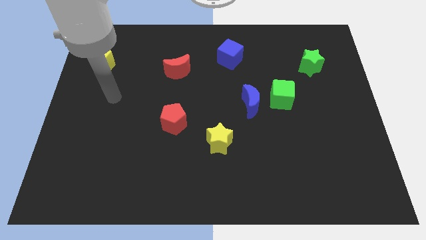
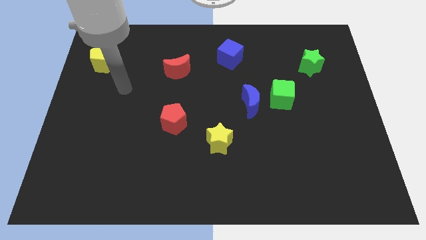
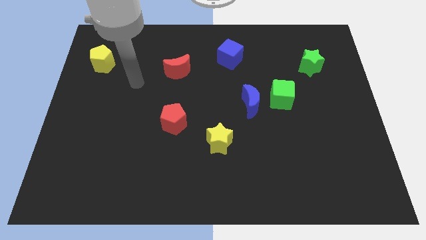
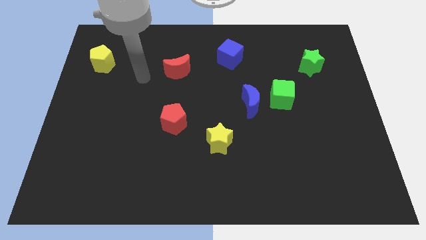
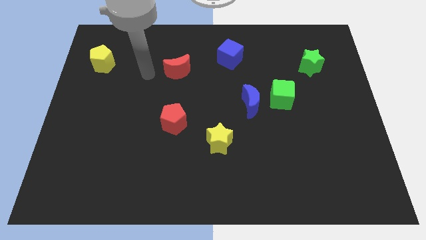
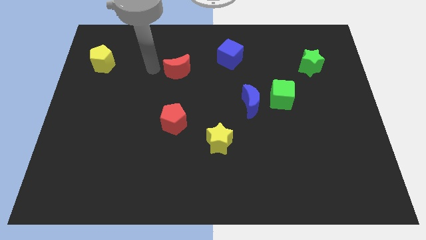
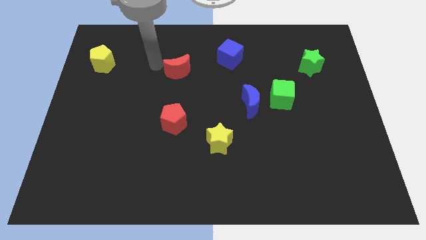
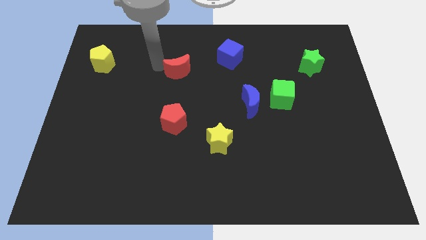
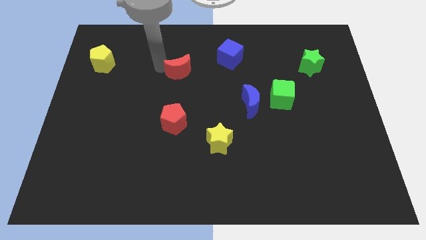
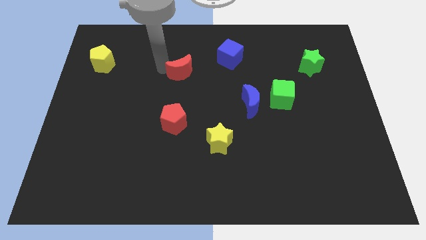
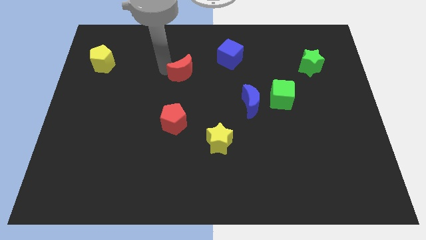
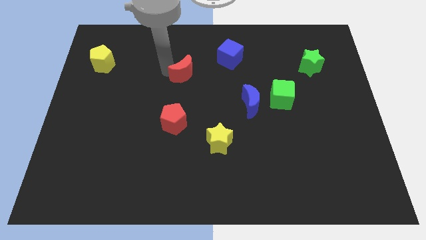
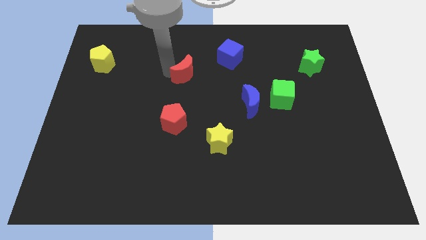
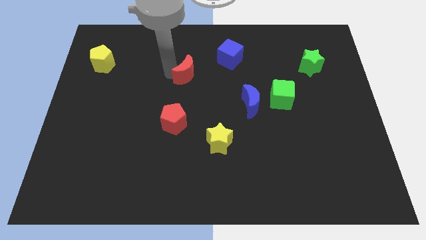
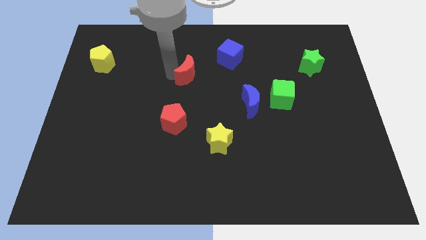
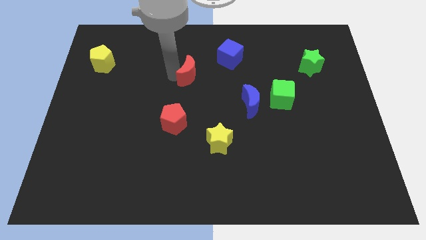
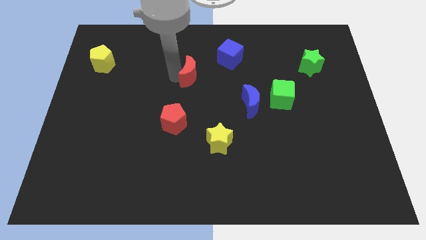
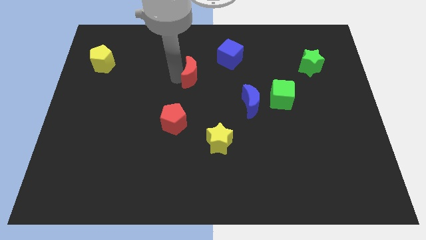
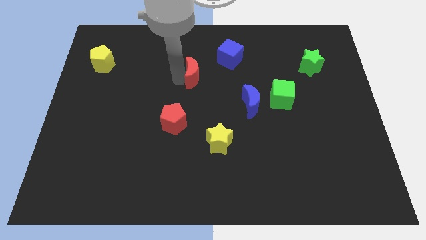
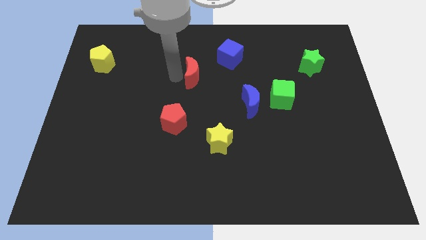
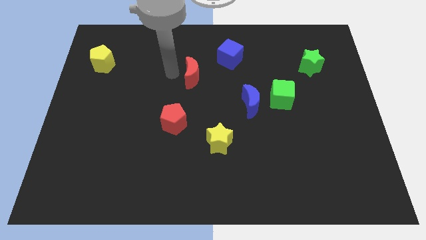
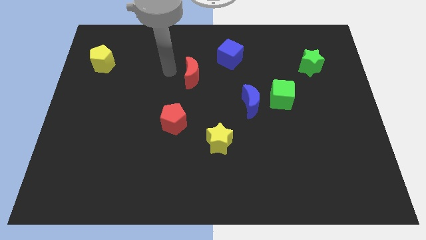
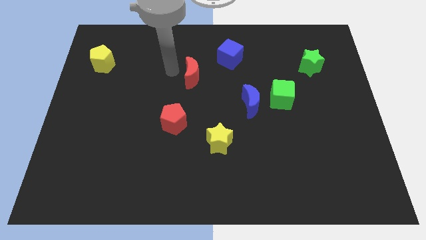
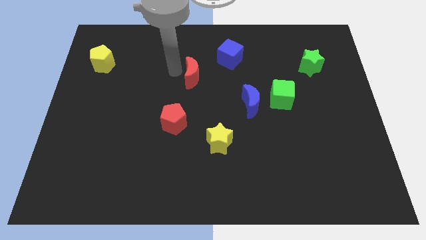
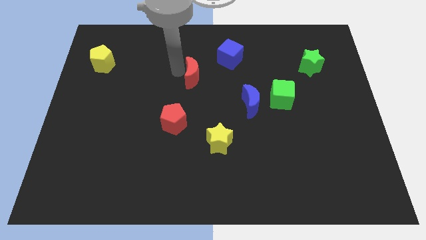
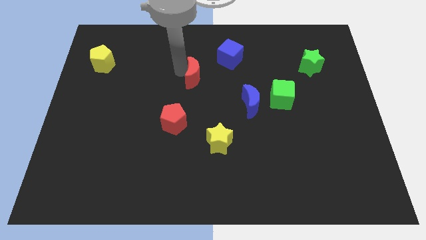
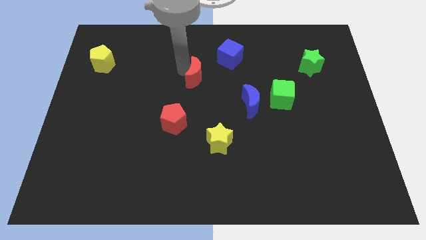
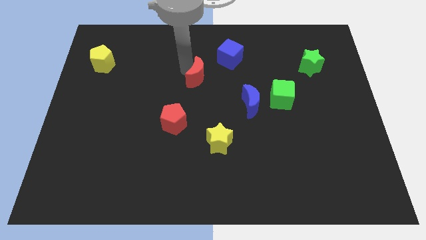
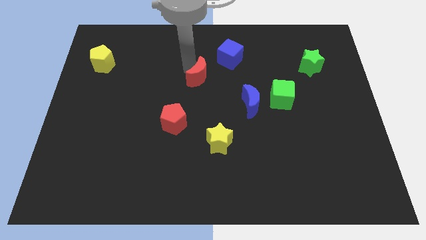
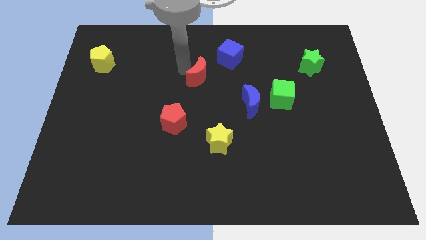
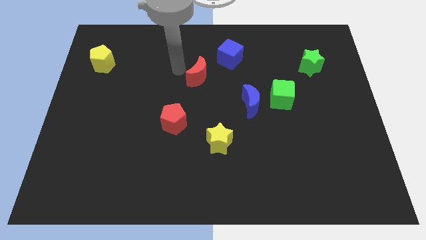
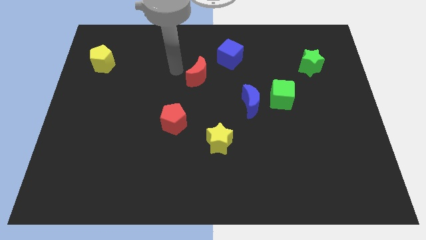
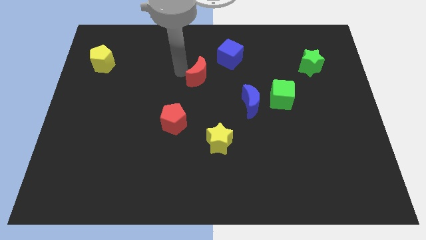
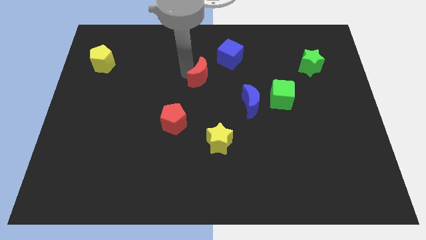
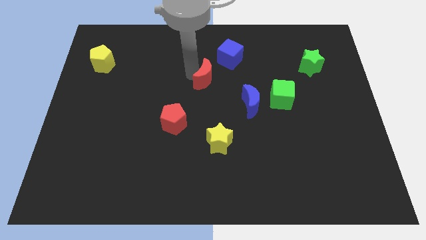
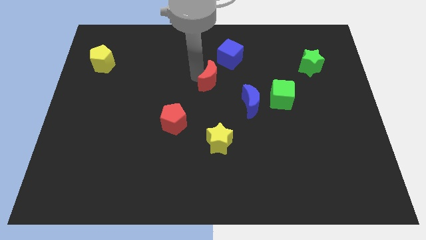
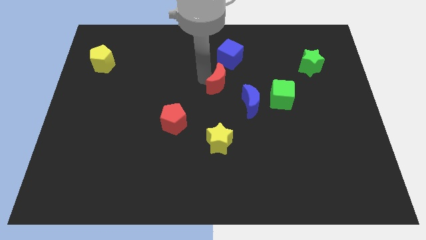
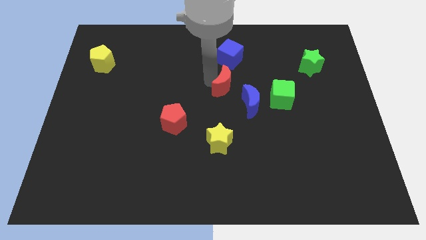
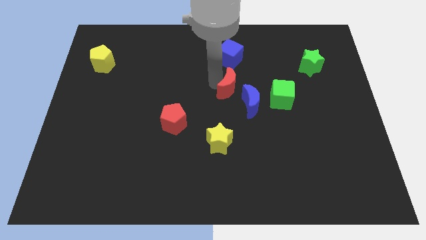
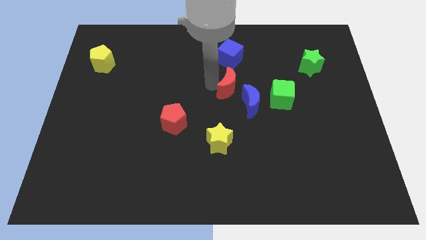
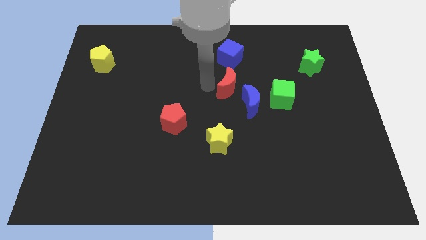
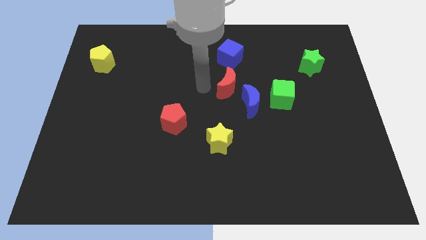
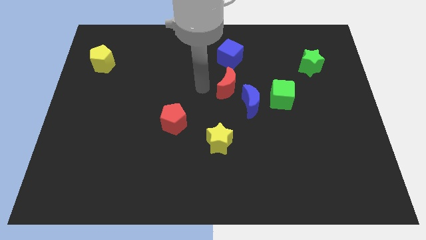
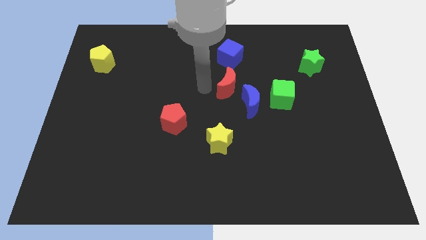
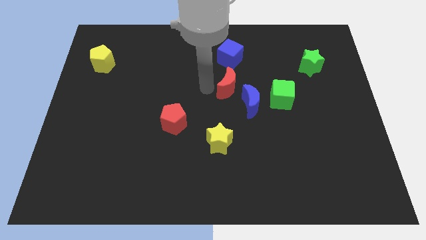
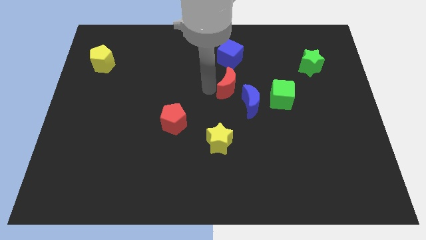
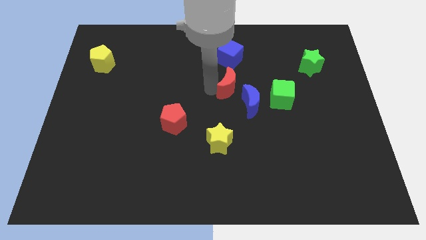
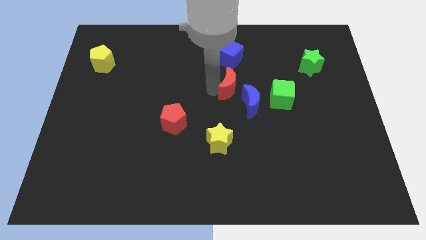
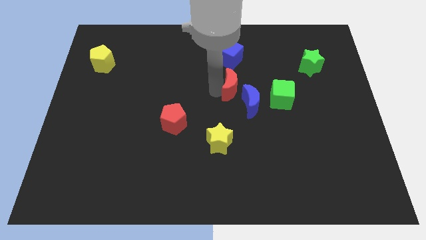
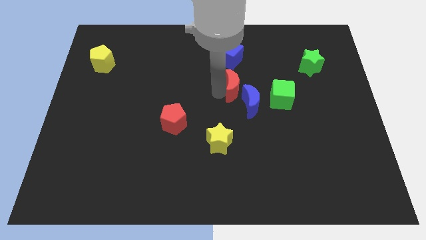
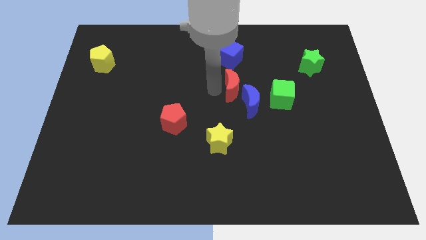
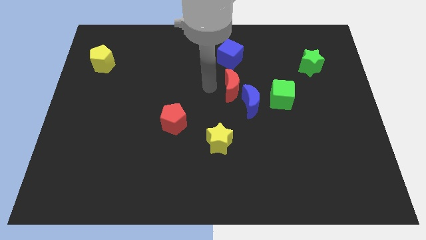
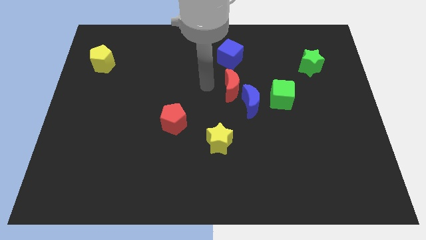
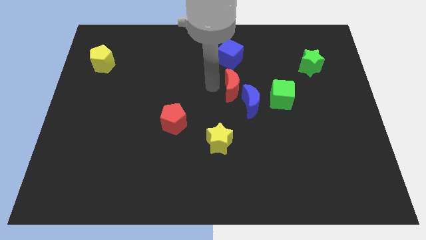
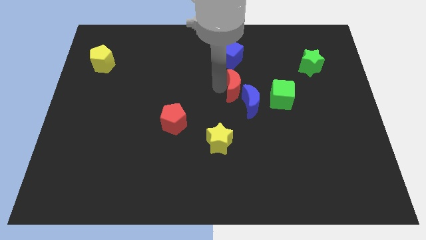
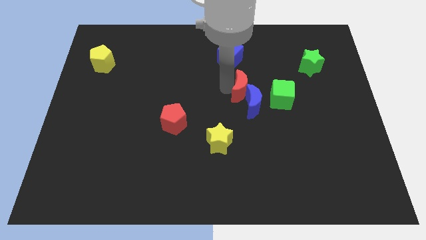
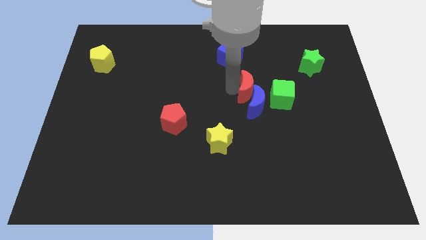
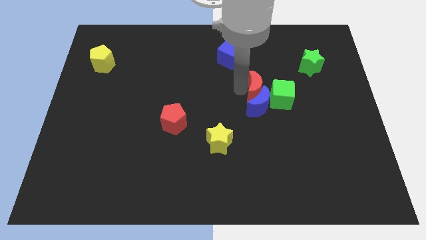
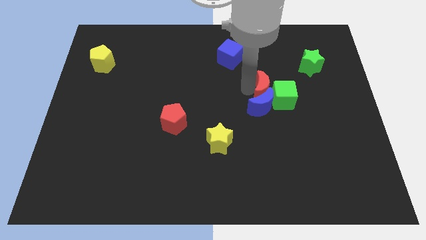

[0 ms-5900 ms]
push the red moon to the green cube

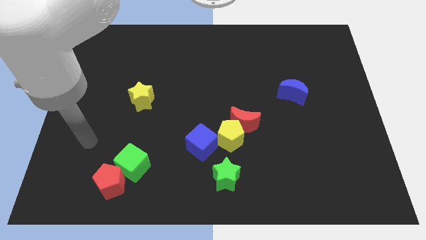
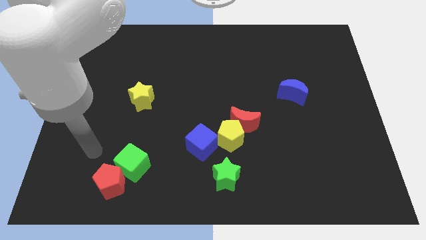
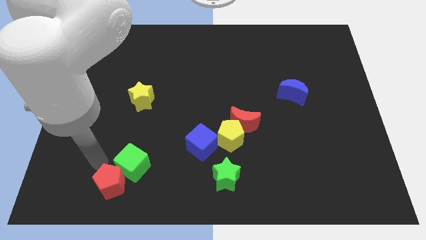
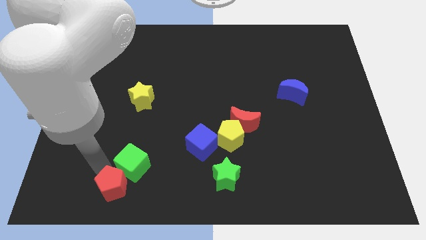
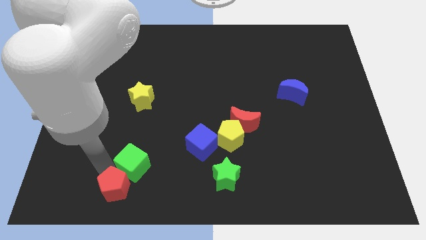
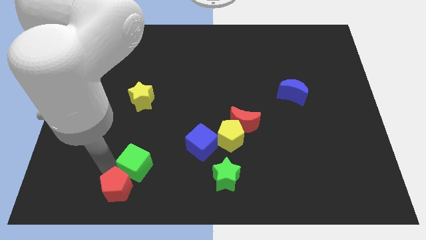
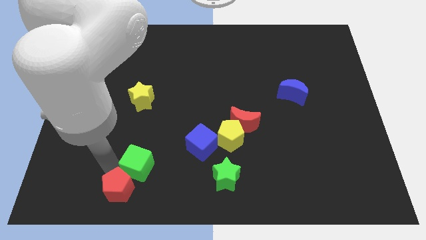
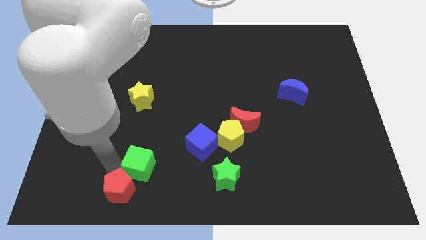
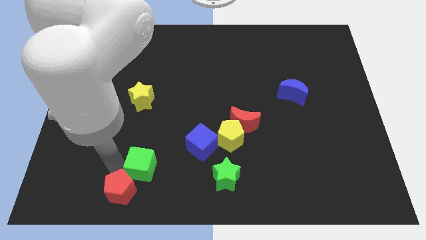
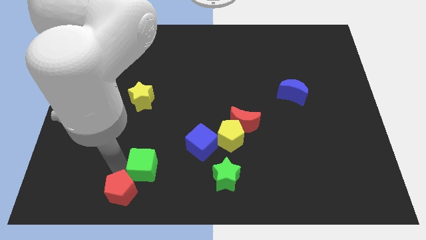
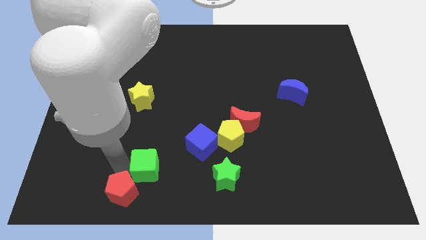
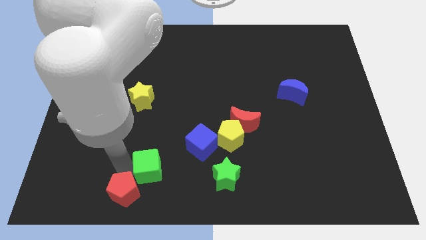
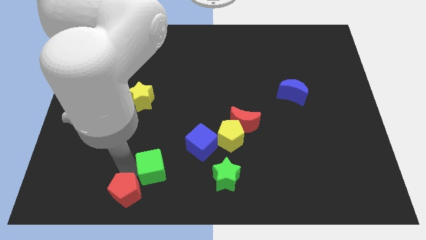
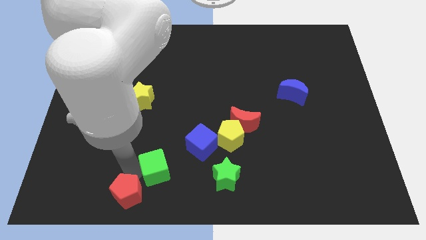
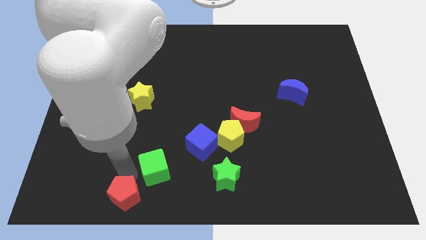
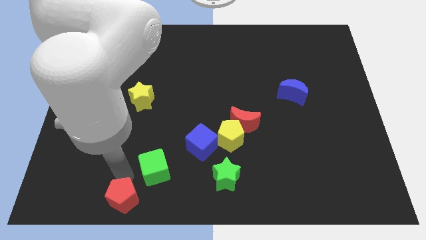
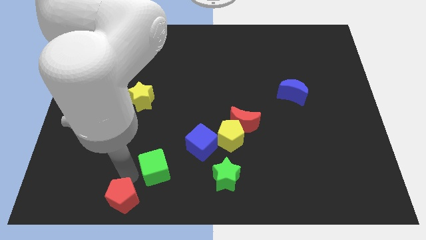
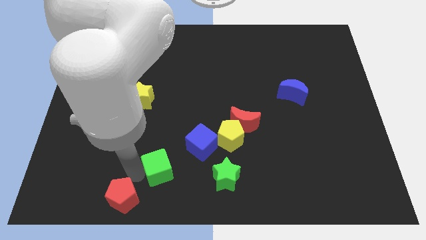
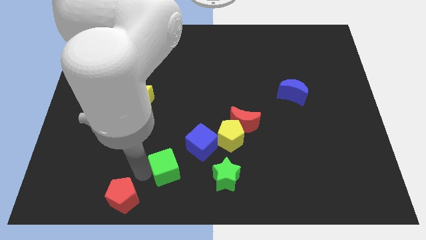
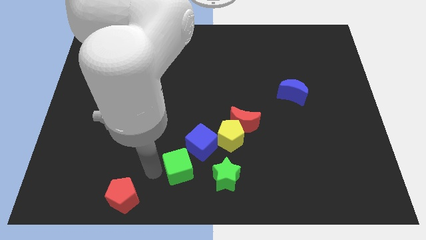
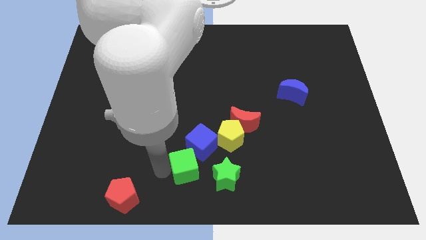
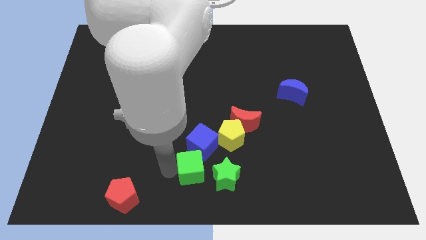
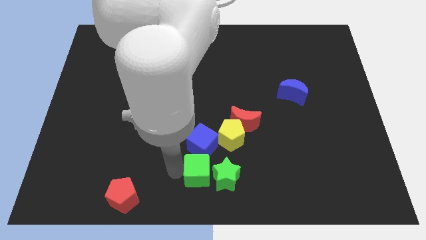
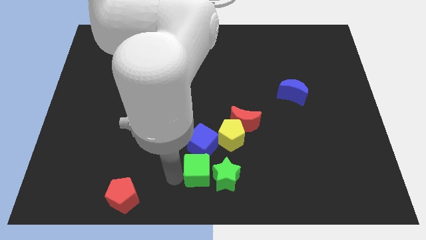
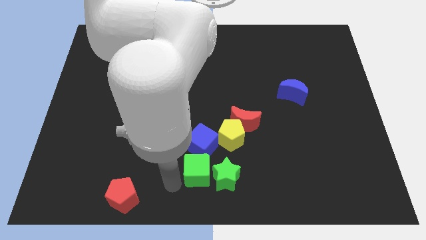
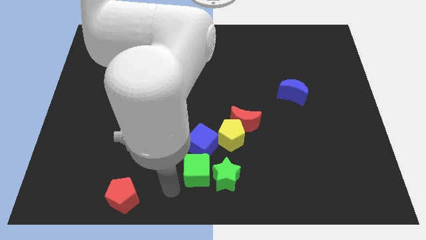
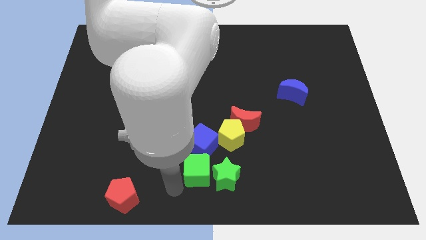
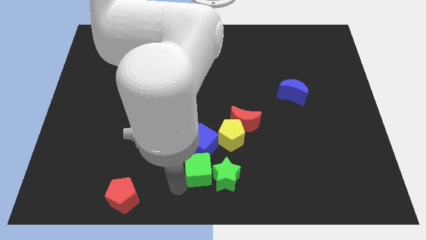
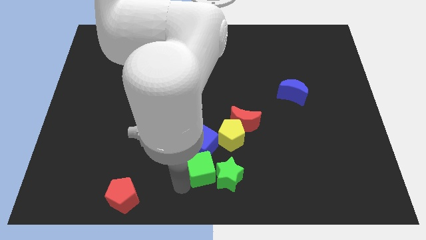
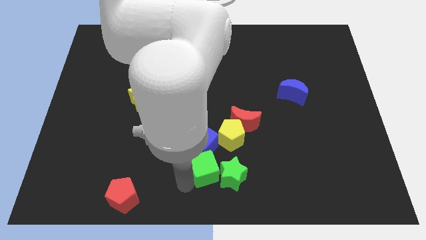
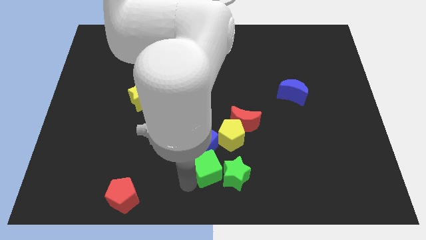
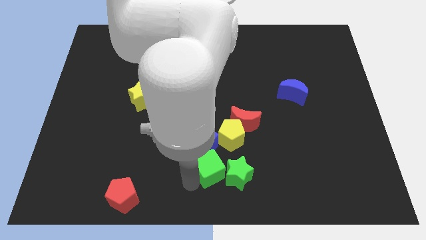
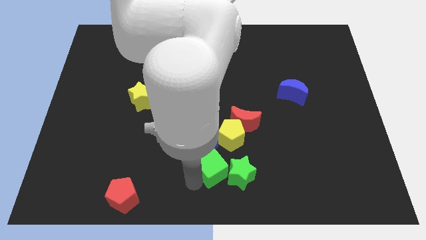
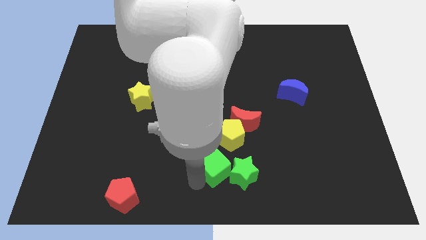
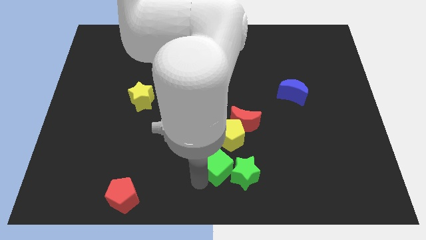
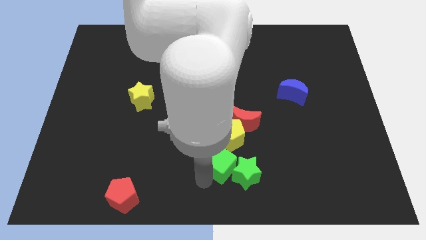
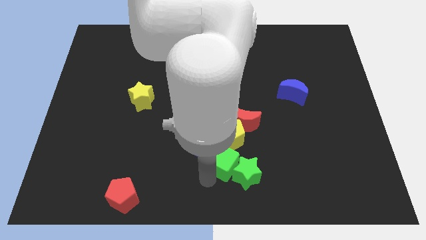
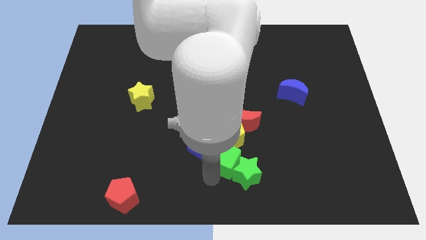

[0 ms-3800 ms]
slide the green cube towards the yellow pentagon
